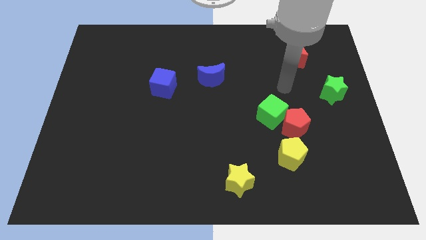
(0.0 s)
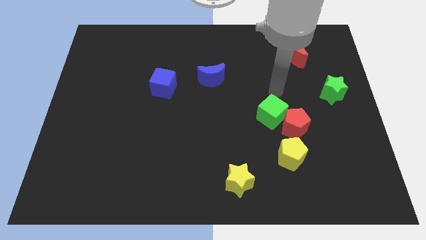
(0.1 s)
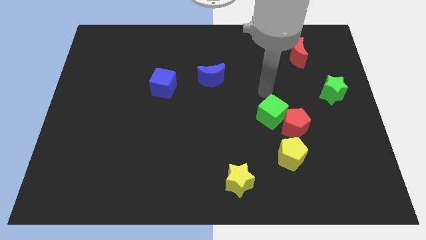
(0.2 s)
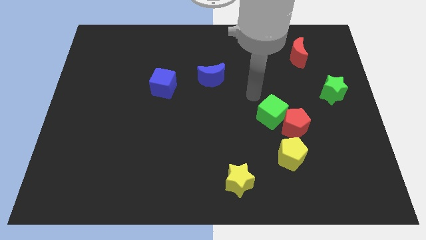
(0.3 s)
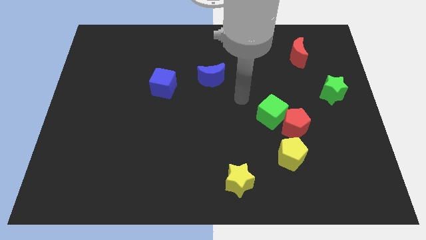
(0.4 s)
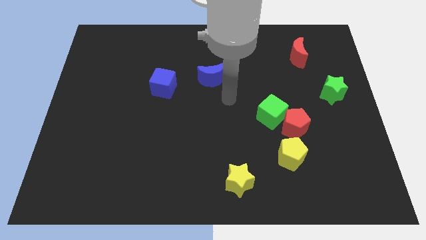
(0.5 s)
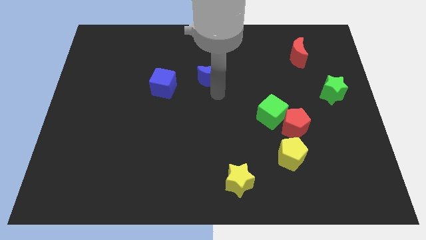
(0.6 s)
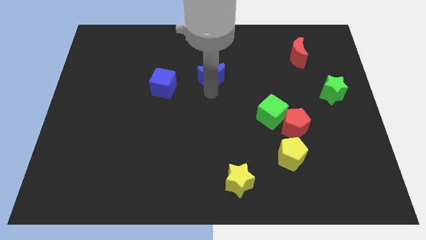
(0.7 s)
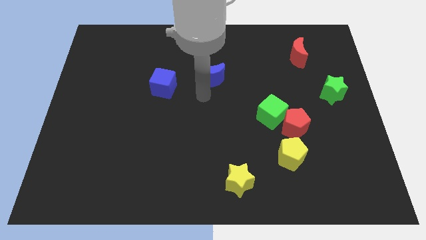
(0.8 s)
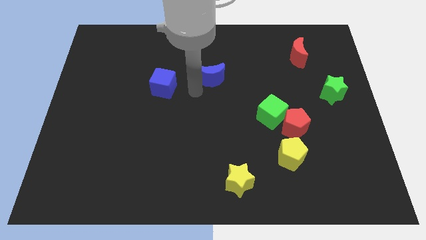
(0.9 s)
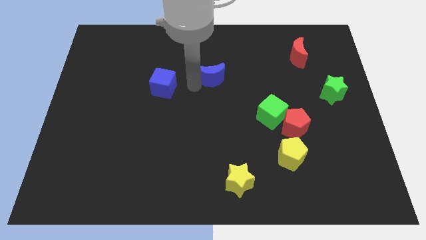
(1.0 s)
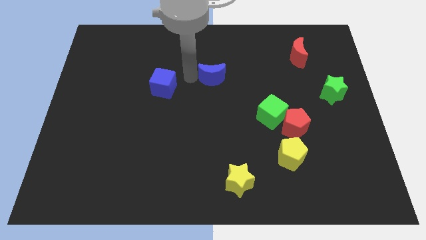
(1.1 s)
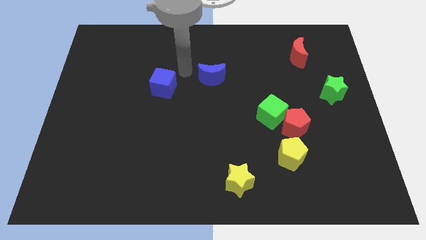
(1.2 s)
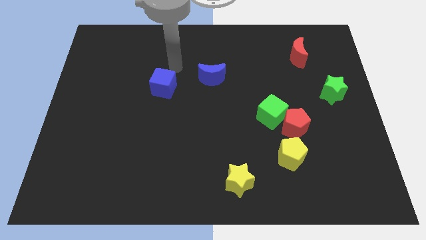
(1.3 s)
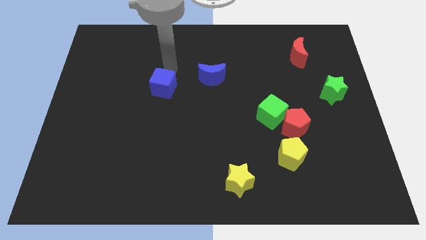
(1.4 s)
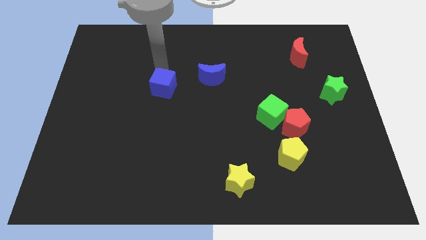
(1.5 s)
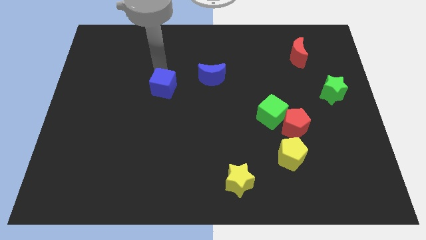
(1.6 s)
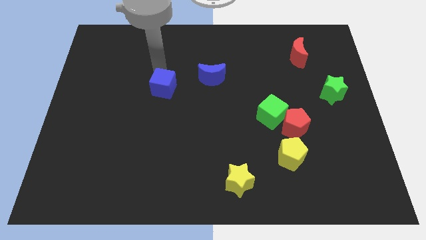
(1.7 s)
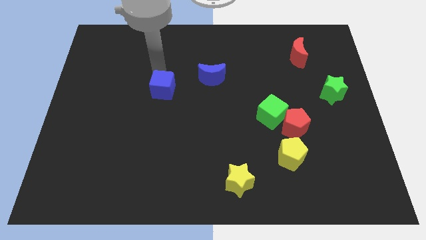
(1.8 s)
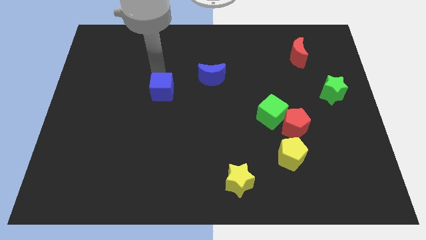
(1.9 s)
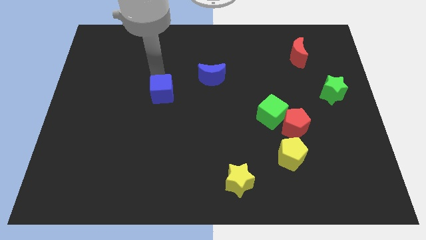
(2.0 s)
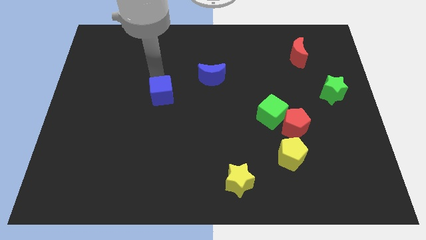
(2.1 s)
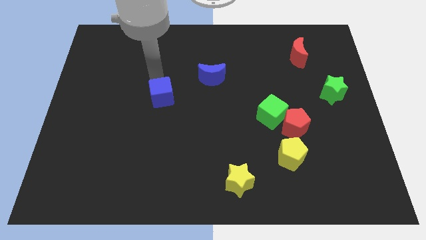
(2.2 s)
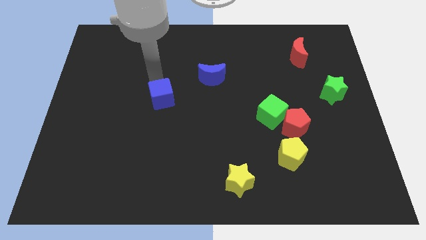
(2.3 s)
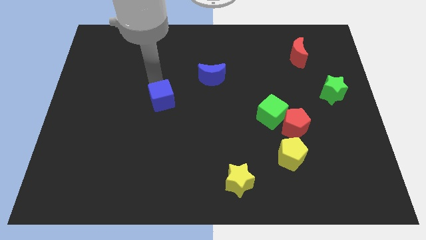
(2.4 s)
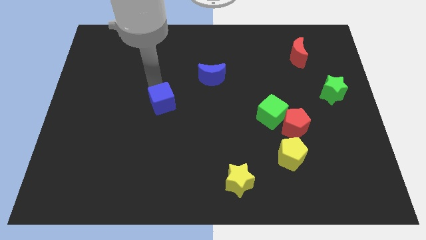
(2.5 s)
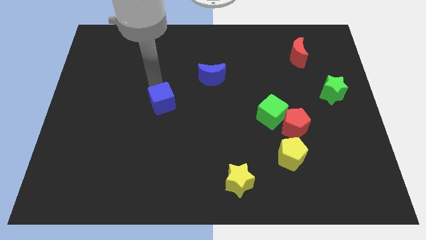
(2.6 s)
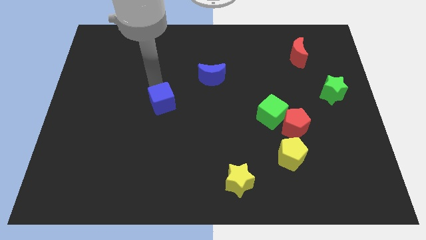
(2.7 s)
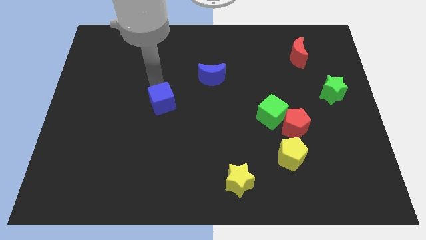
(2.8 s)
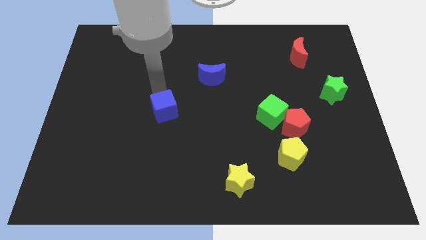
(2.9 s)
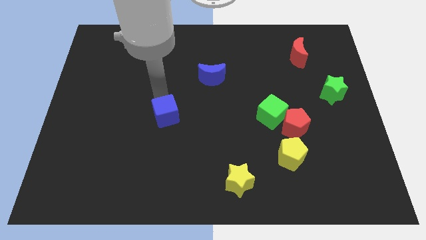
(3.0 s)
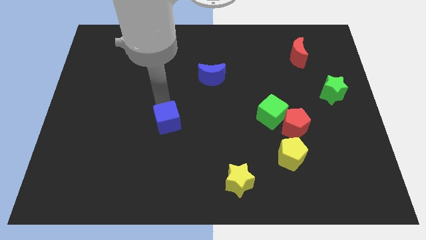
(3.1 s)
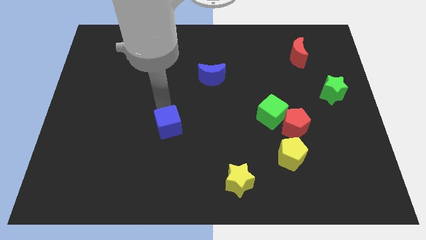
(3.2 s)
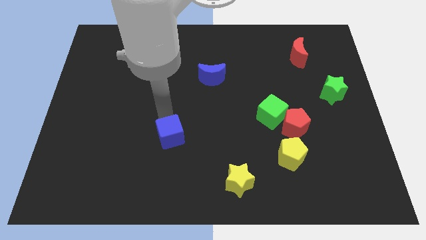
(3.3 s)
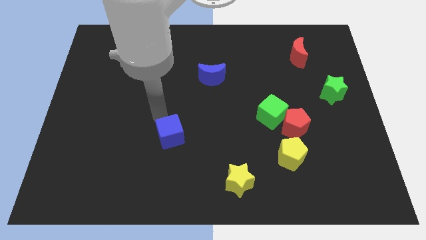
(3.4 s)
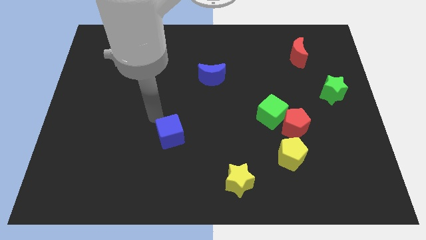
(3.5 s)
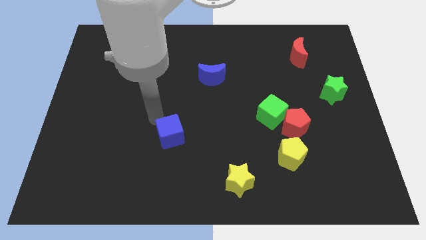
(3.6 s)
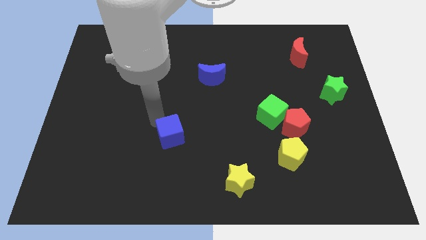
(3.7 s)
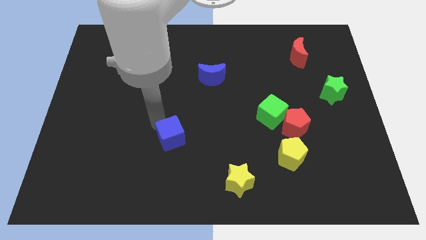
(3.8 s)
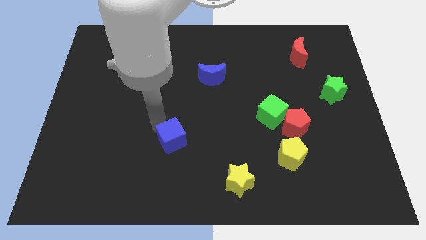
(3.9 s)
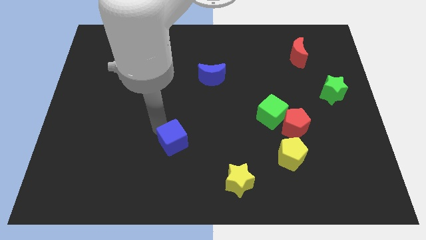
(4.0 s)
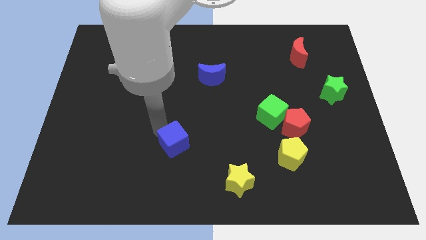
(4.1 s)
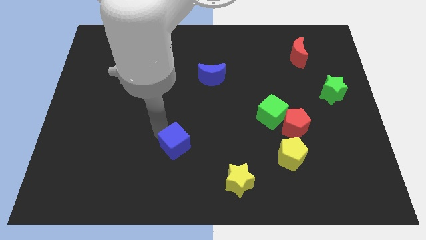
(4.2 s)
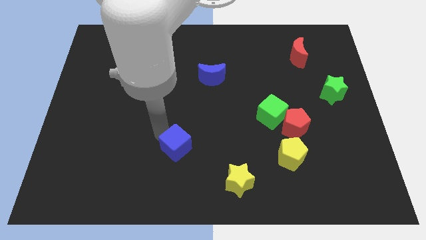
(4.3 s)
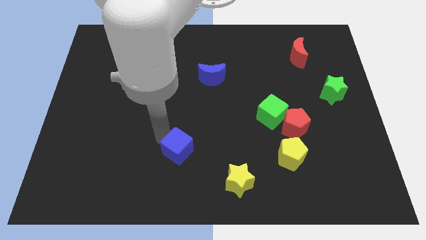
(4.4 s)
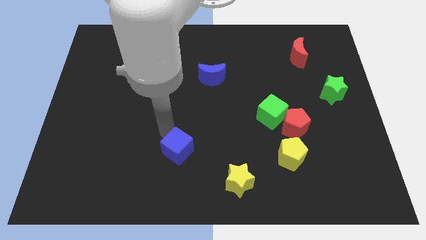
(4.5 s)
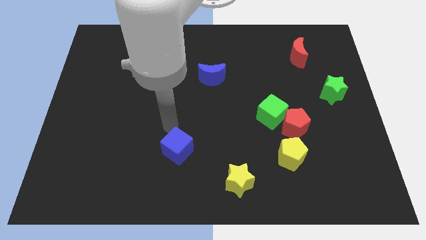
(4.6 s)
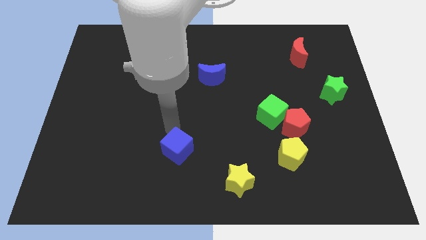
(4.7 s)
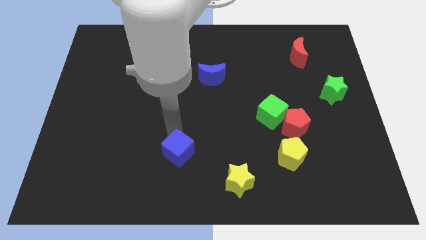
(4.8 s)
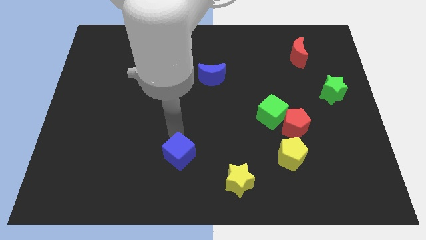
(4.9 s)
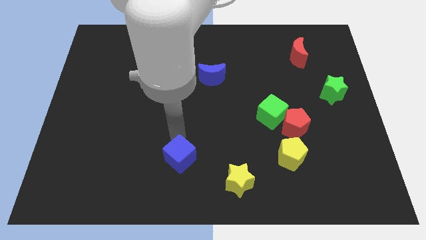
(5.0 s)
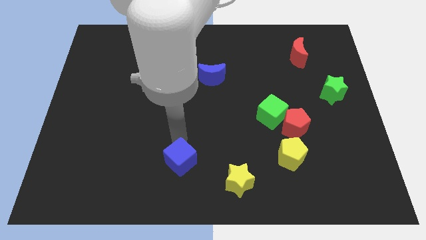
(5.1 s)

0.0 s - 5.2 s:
slide the blue cube to the left side of the yellow star

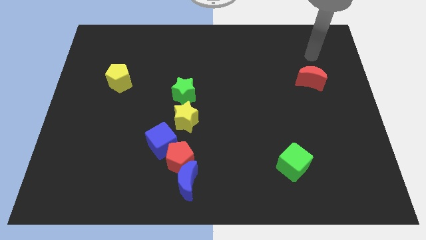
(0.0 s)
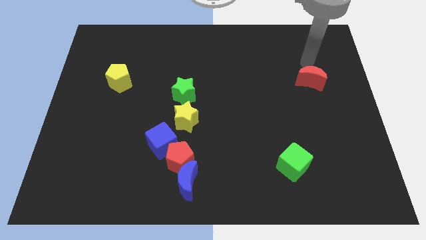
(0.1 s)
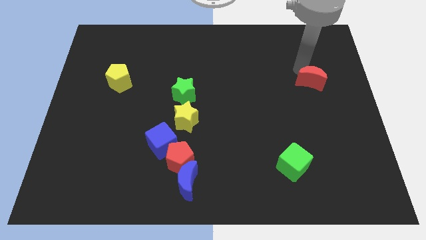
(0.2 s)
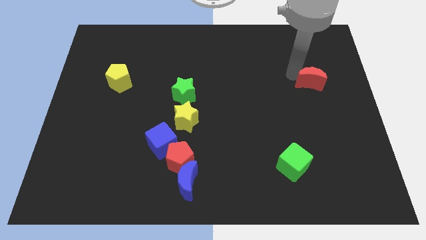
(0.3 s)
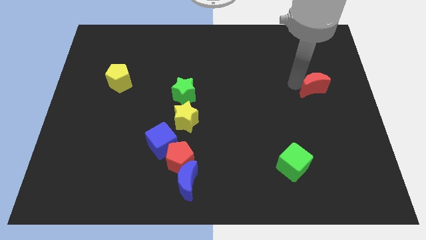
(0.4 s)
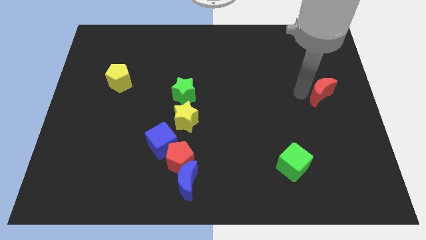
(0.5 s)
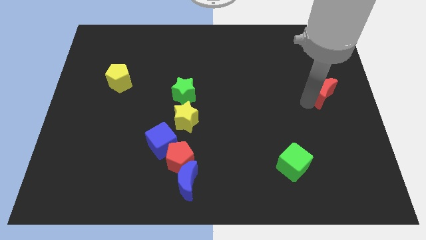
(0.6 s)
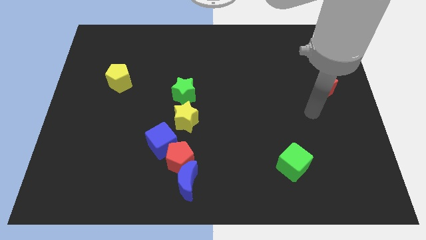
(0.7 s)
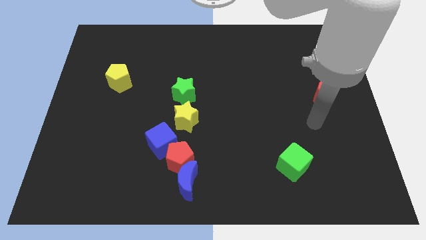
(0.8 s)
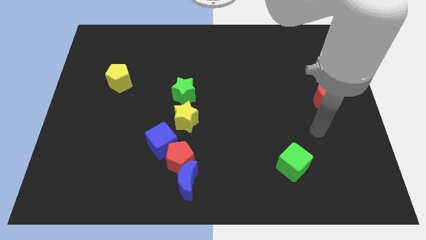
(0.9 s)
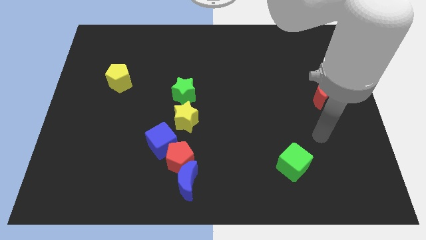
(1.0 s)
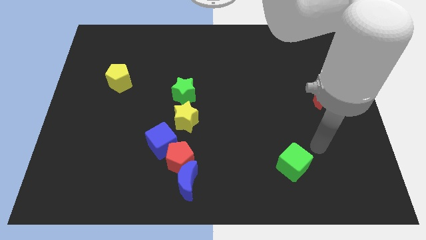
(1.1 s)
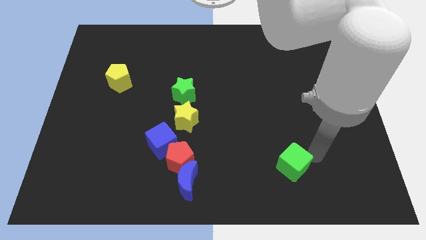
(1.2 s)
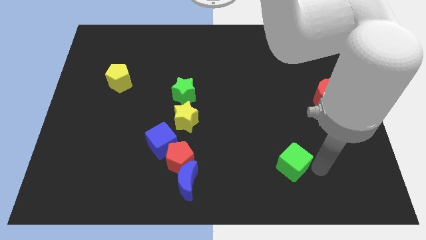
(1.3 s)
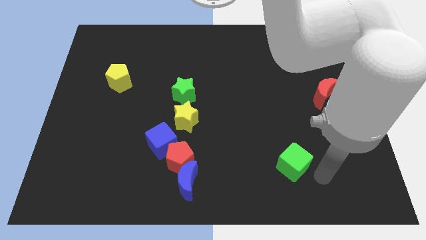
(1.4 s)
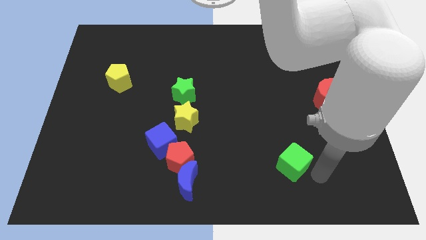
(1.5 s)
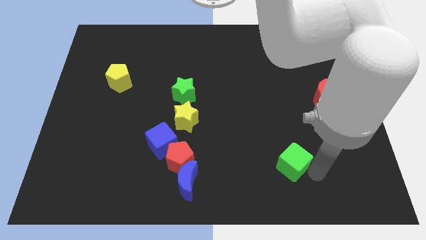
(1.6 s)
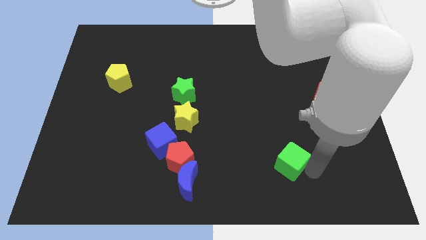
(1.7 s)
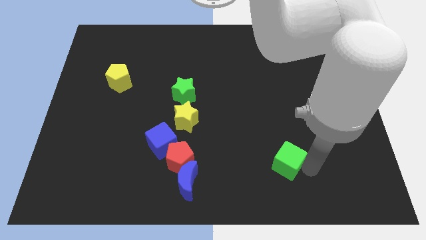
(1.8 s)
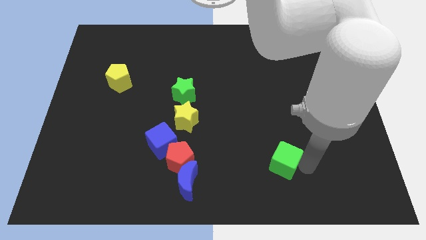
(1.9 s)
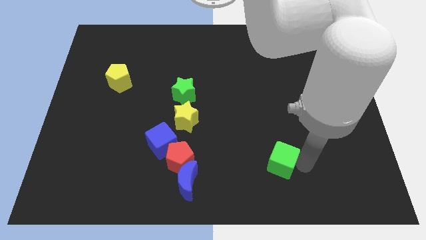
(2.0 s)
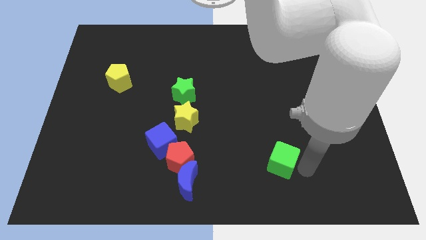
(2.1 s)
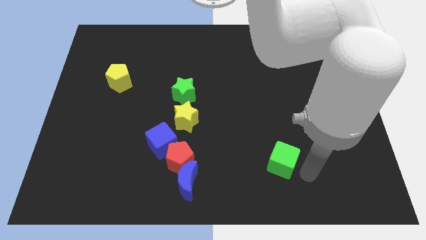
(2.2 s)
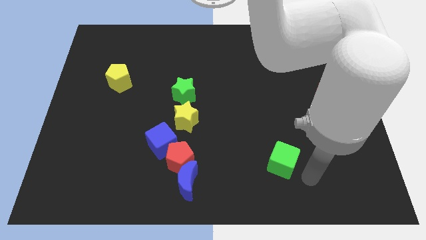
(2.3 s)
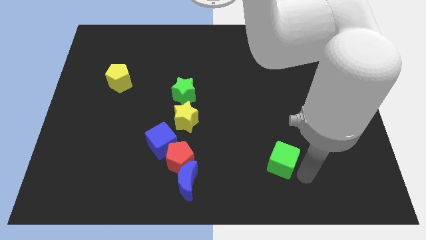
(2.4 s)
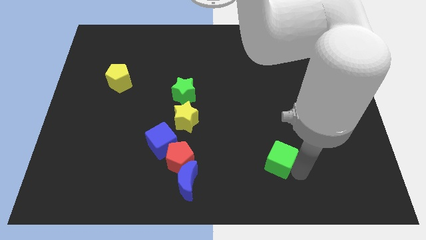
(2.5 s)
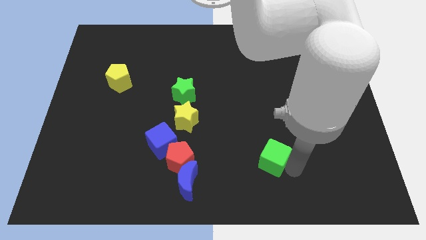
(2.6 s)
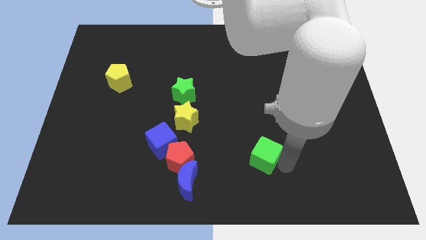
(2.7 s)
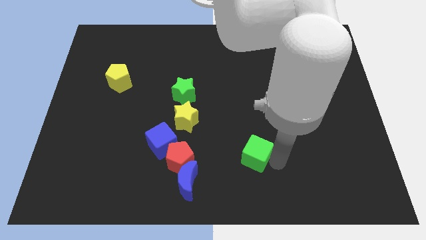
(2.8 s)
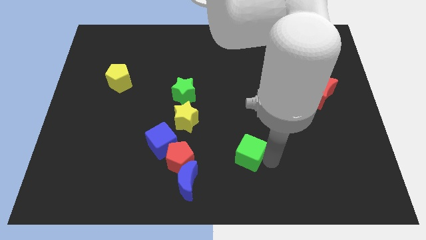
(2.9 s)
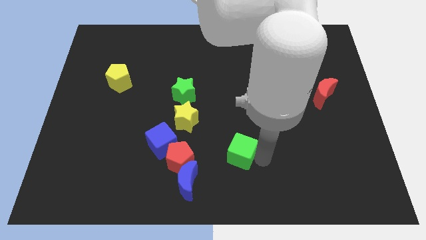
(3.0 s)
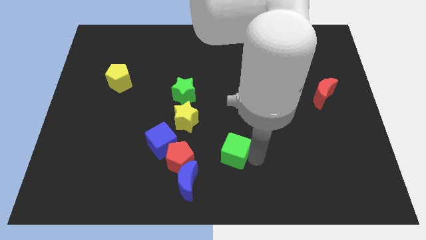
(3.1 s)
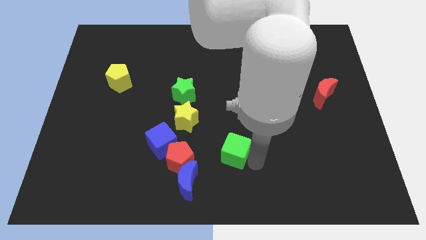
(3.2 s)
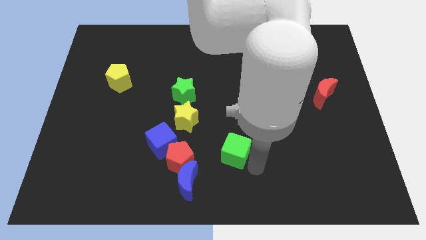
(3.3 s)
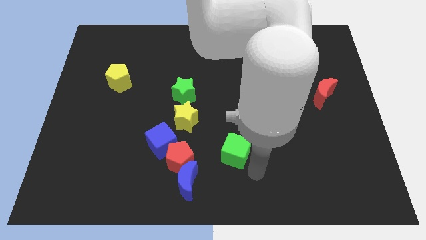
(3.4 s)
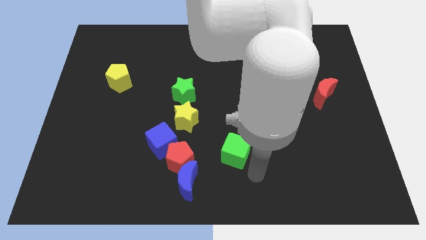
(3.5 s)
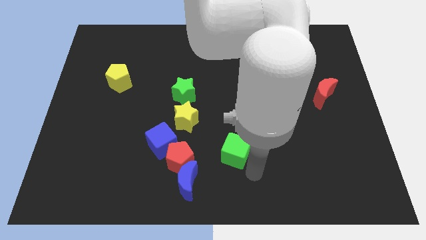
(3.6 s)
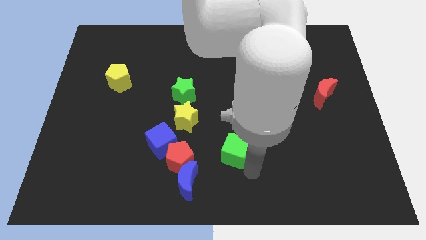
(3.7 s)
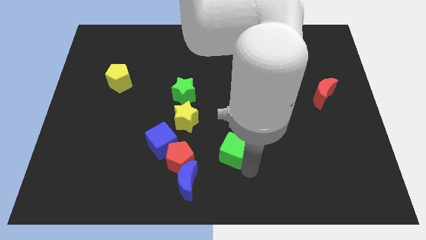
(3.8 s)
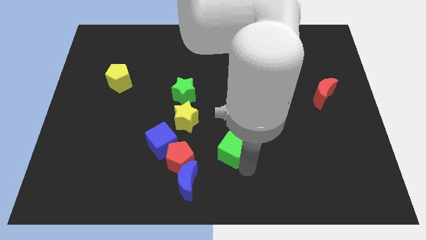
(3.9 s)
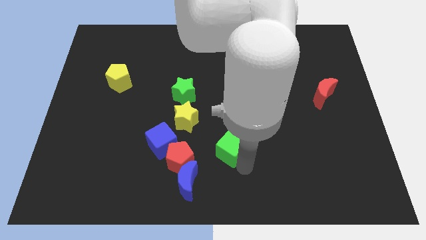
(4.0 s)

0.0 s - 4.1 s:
push the green cube to the bottom right of the yellow star
